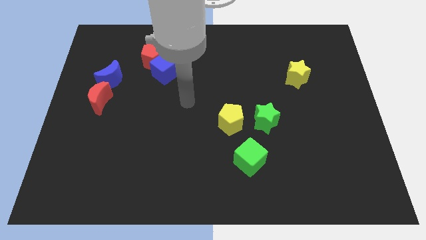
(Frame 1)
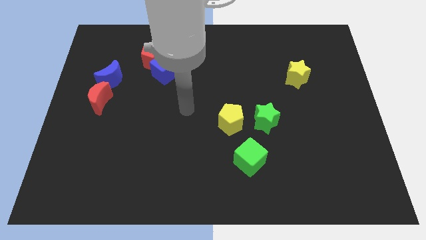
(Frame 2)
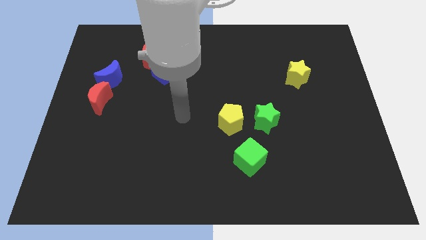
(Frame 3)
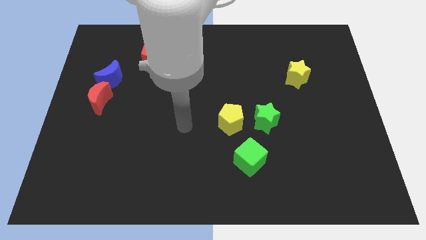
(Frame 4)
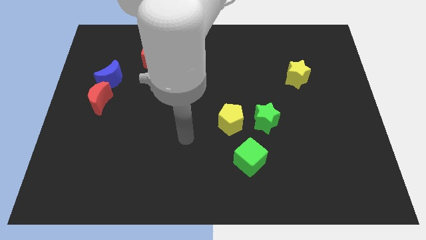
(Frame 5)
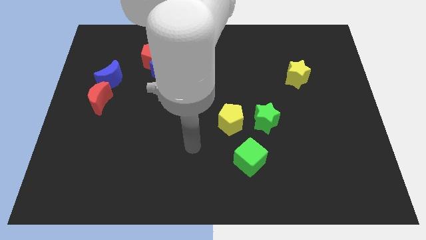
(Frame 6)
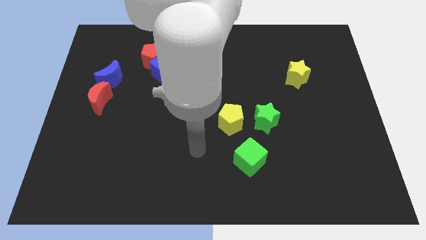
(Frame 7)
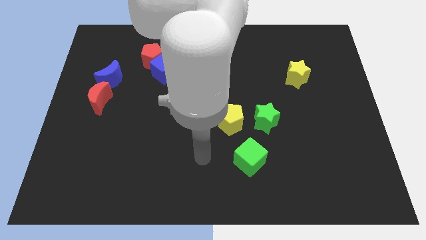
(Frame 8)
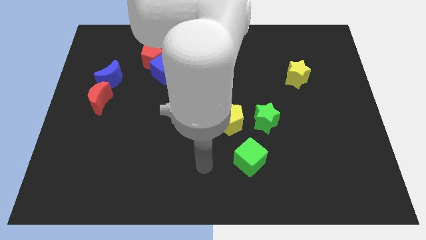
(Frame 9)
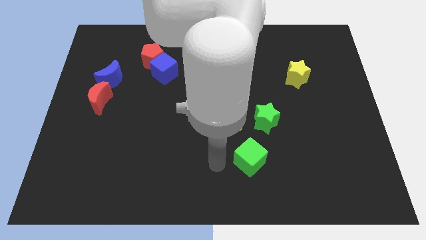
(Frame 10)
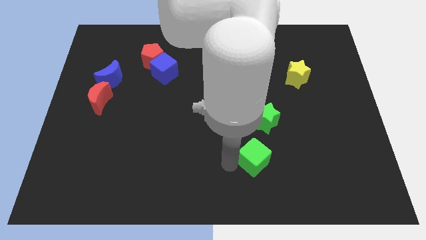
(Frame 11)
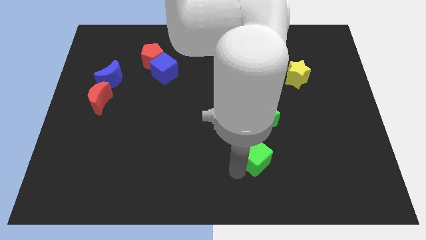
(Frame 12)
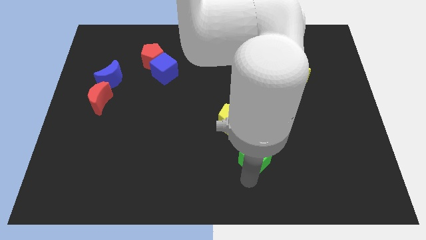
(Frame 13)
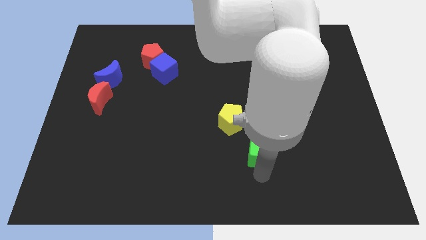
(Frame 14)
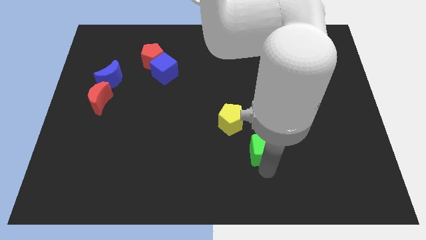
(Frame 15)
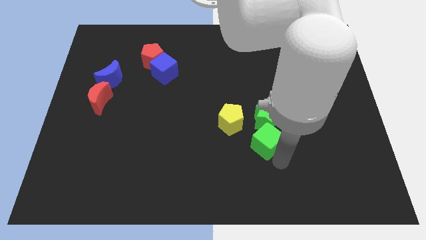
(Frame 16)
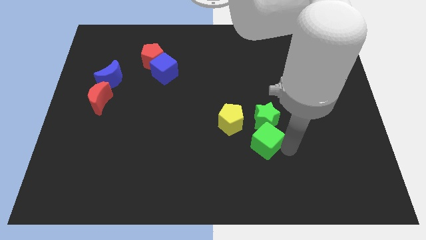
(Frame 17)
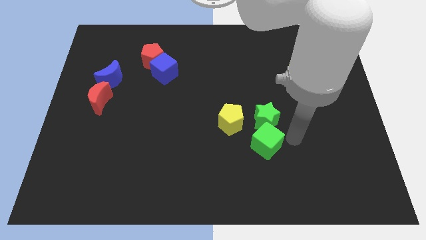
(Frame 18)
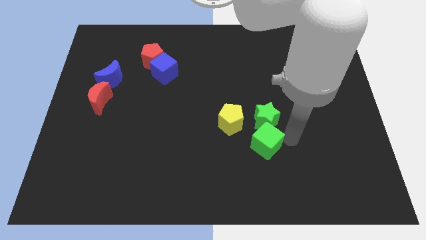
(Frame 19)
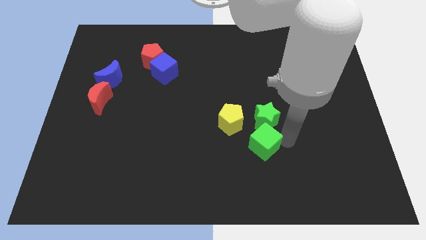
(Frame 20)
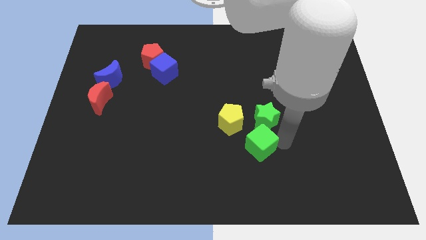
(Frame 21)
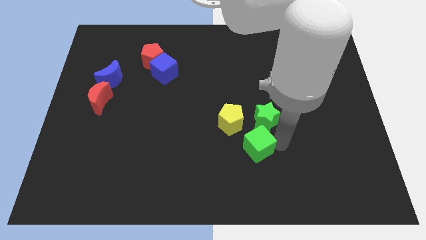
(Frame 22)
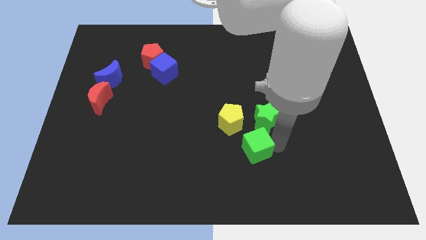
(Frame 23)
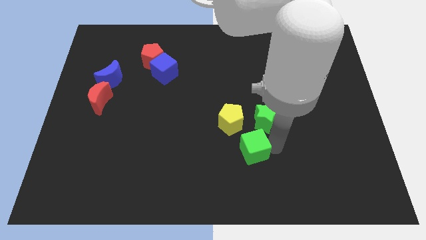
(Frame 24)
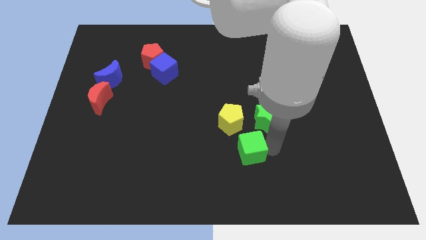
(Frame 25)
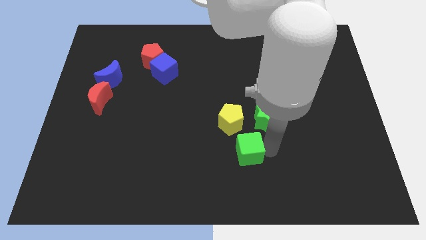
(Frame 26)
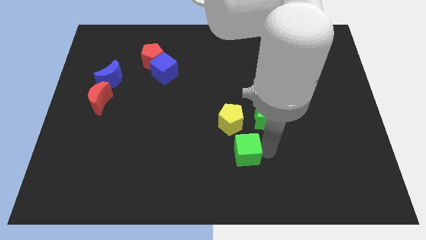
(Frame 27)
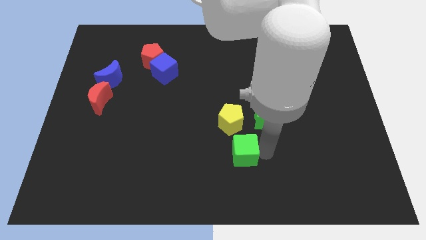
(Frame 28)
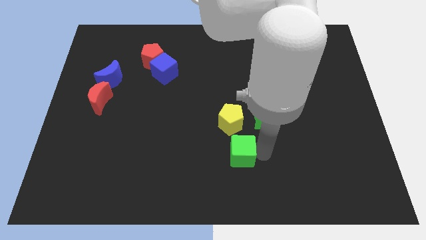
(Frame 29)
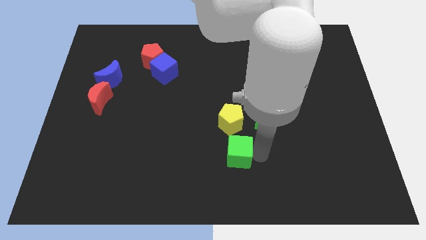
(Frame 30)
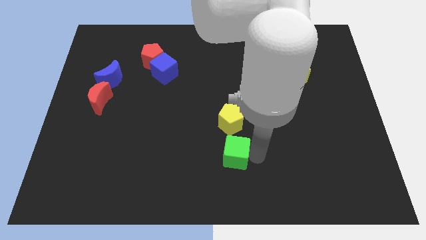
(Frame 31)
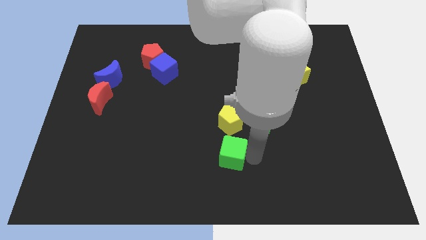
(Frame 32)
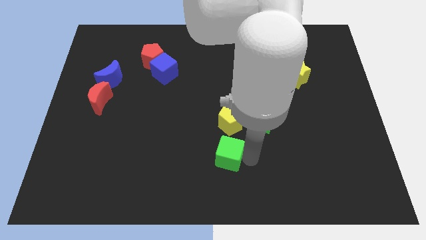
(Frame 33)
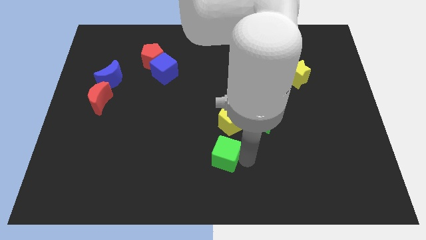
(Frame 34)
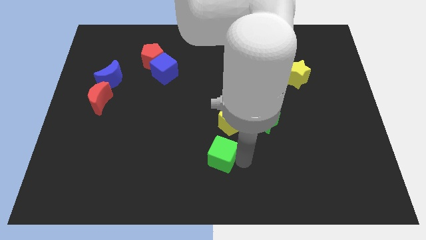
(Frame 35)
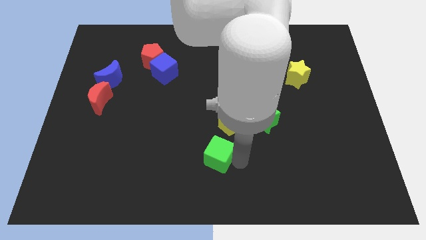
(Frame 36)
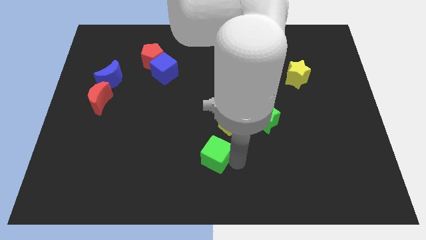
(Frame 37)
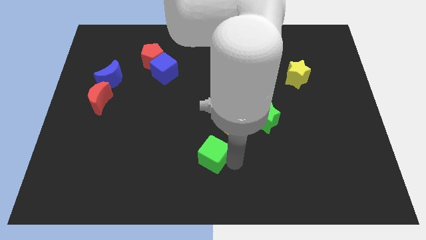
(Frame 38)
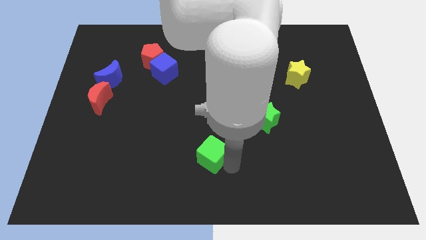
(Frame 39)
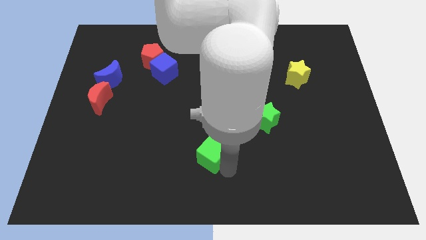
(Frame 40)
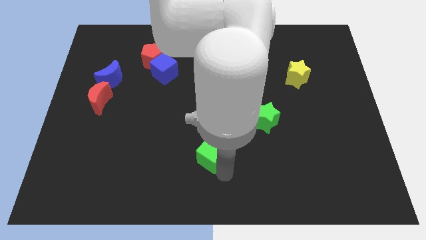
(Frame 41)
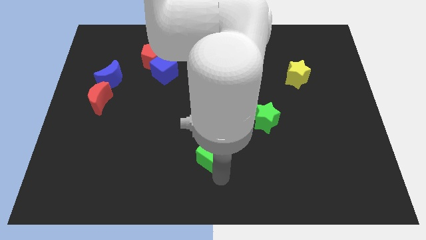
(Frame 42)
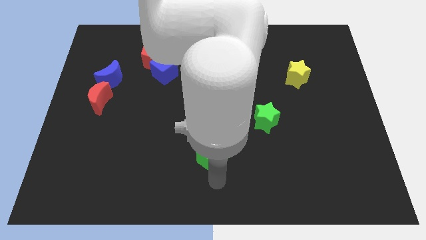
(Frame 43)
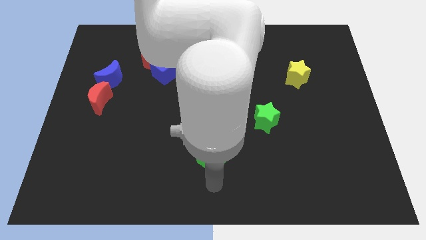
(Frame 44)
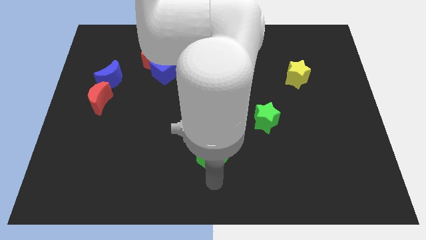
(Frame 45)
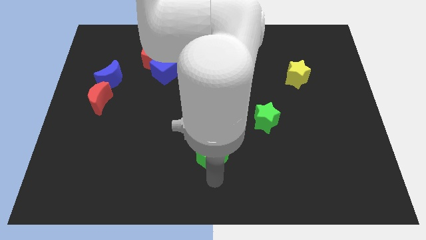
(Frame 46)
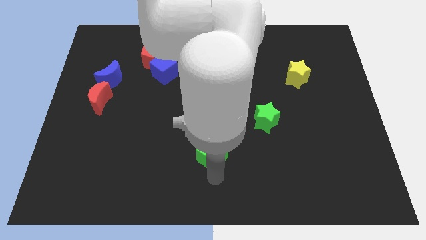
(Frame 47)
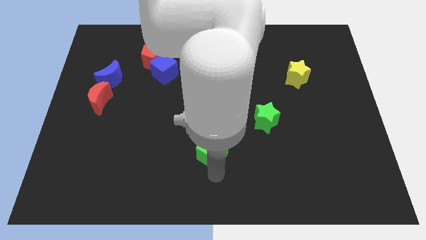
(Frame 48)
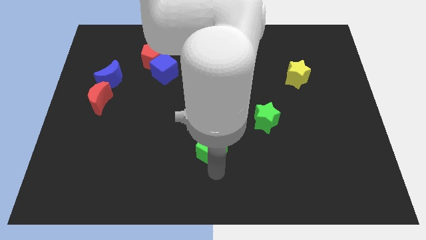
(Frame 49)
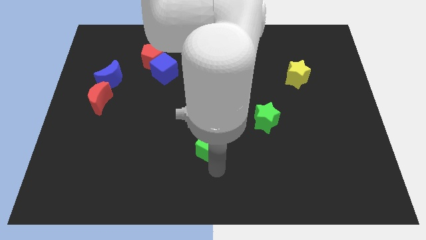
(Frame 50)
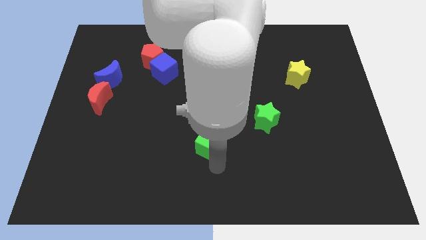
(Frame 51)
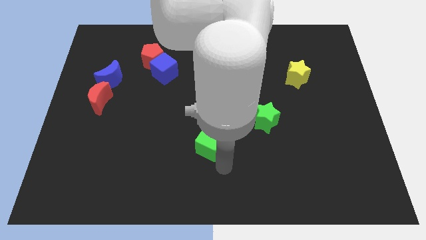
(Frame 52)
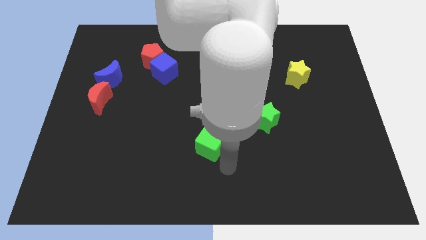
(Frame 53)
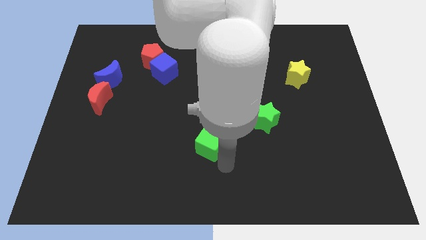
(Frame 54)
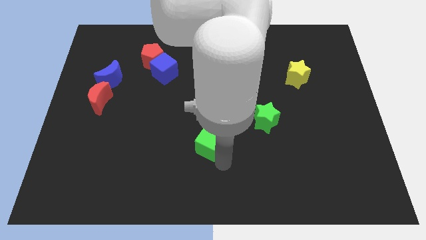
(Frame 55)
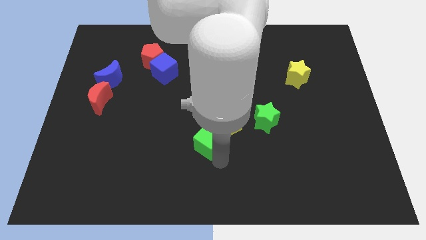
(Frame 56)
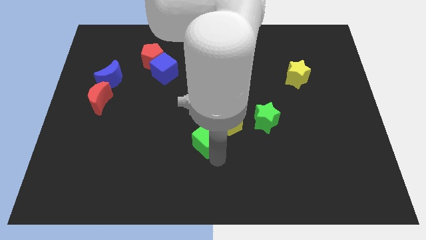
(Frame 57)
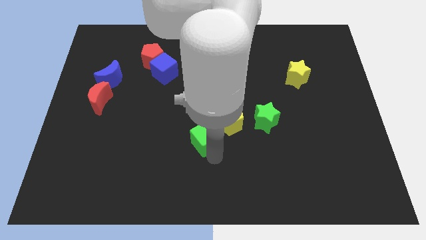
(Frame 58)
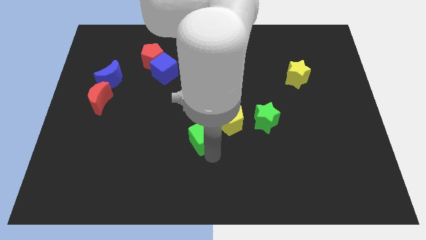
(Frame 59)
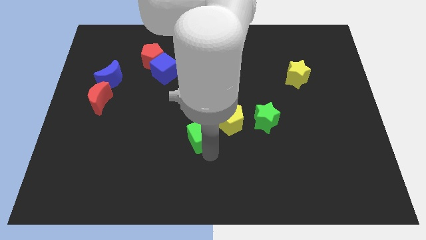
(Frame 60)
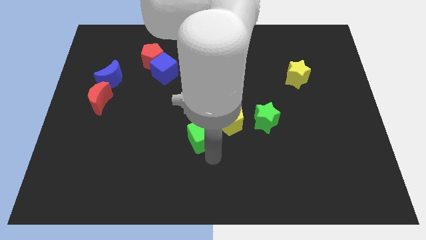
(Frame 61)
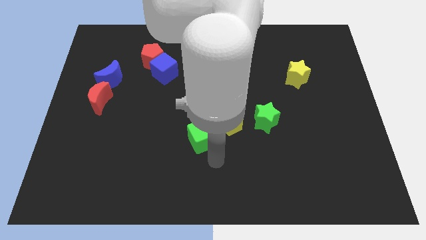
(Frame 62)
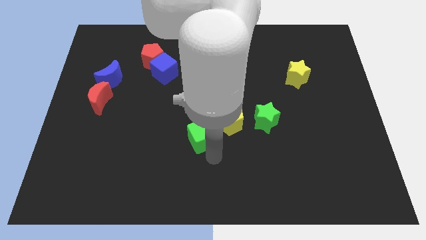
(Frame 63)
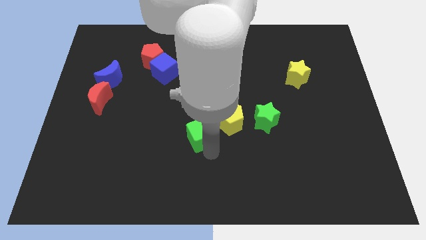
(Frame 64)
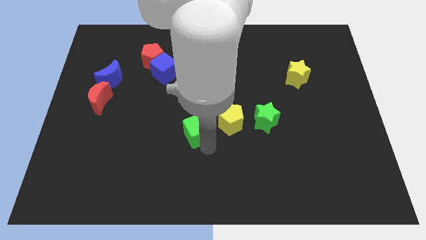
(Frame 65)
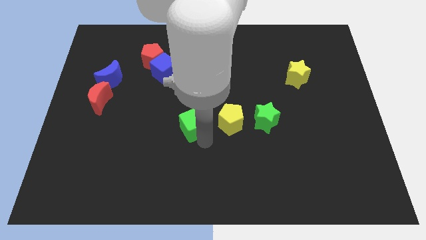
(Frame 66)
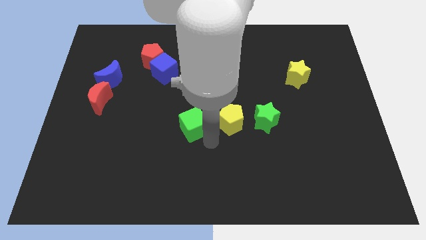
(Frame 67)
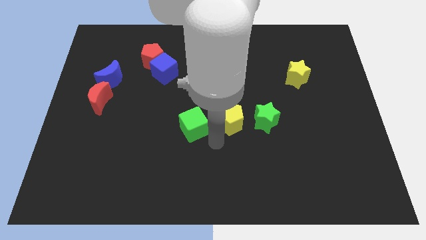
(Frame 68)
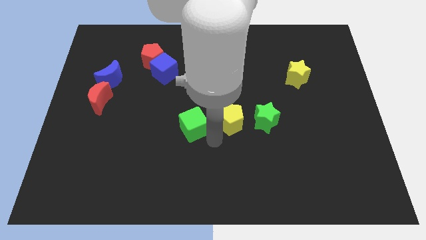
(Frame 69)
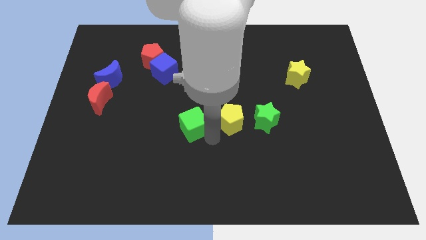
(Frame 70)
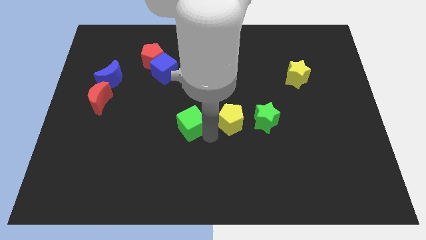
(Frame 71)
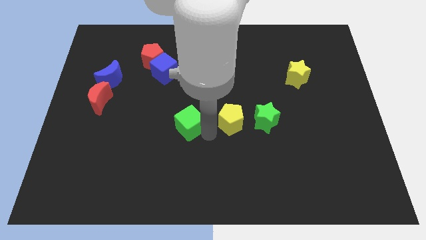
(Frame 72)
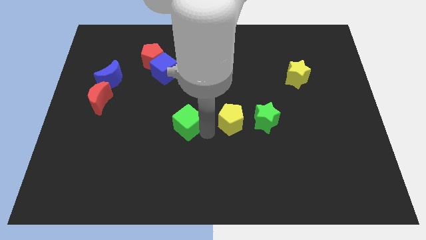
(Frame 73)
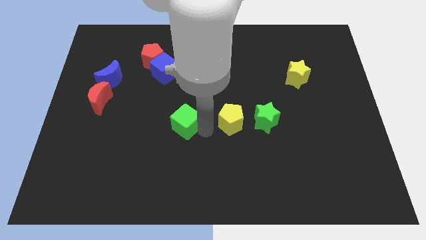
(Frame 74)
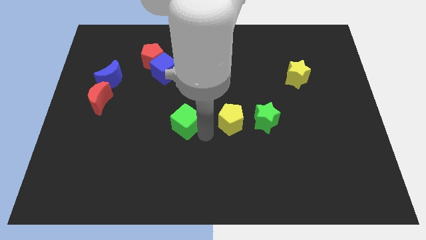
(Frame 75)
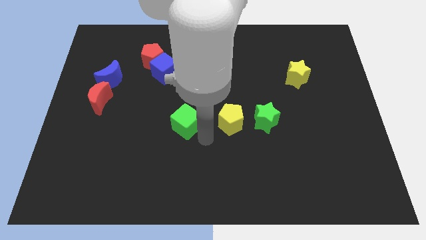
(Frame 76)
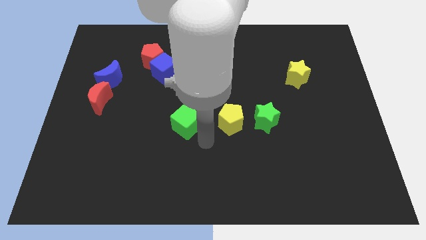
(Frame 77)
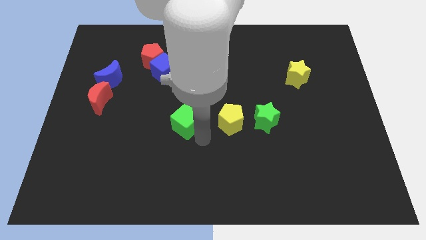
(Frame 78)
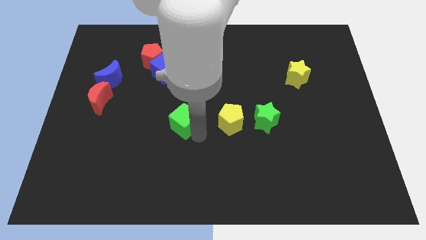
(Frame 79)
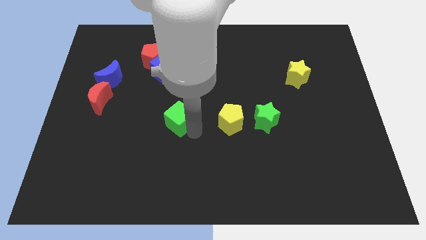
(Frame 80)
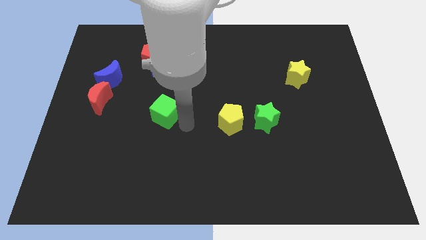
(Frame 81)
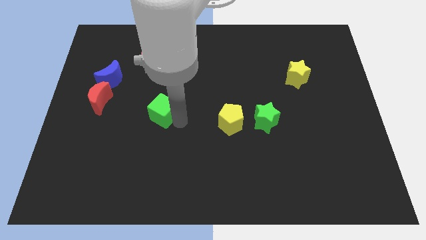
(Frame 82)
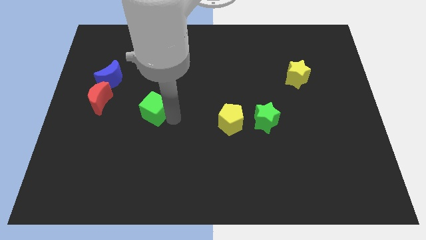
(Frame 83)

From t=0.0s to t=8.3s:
move the green cube right of the red moon
